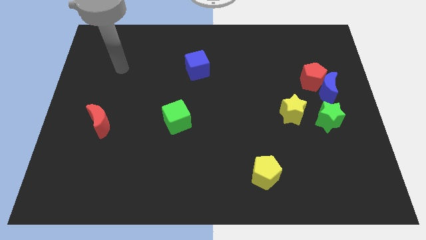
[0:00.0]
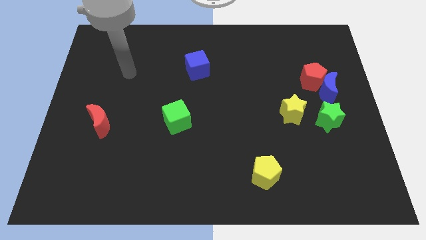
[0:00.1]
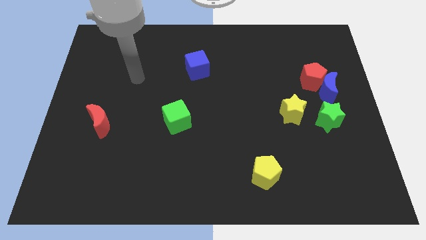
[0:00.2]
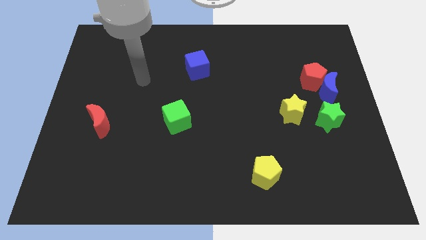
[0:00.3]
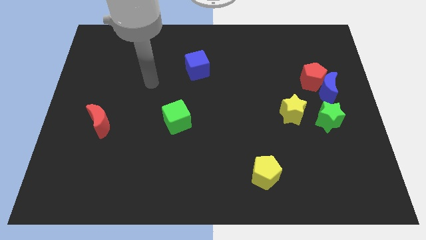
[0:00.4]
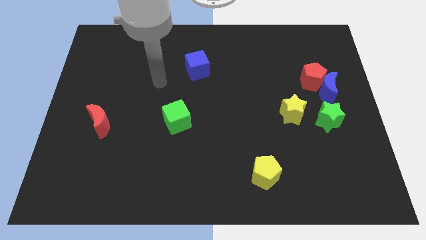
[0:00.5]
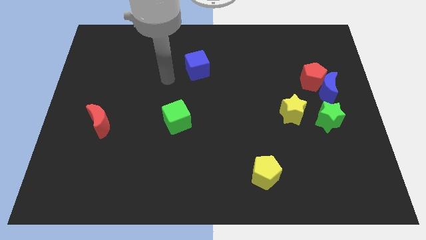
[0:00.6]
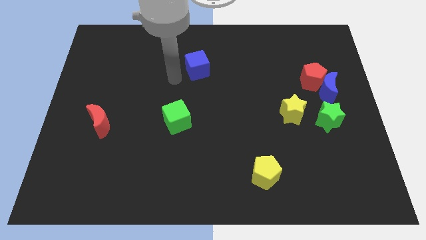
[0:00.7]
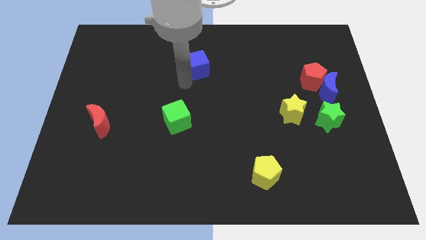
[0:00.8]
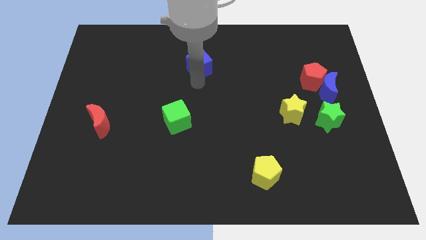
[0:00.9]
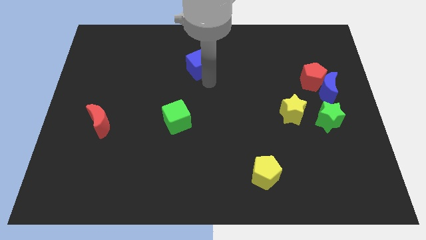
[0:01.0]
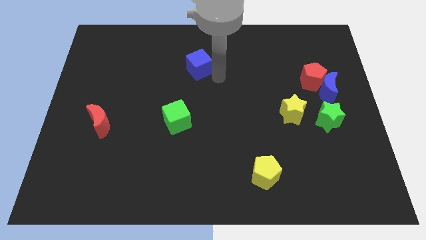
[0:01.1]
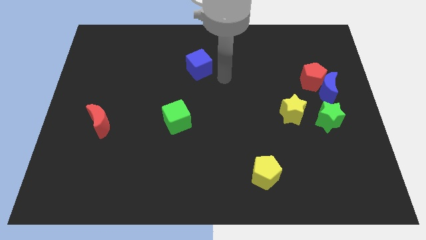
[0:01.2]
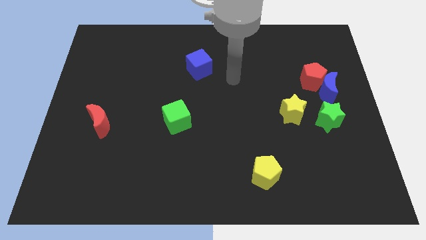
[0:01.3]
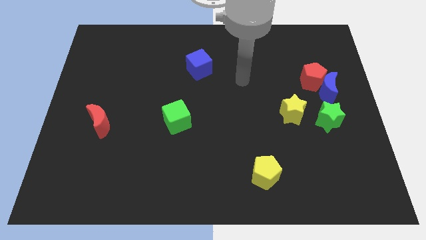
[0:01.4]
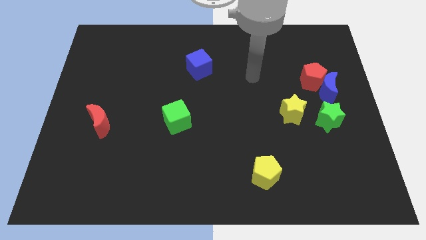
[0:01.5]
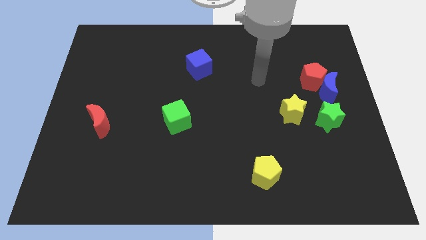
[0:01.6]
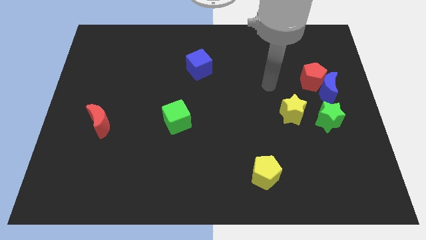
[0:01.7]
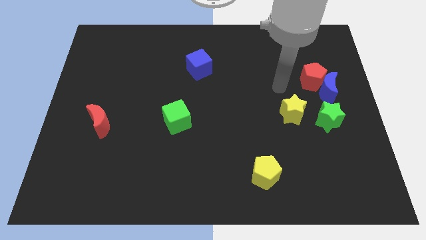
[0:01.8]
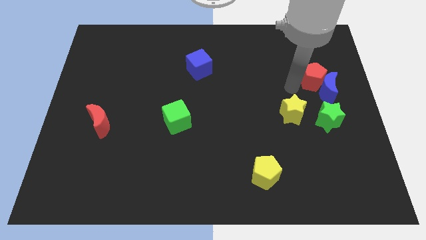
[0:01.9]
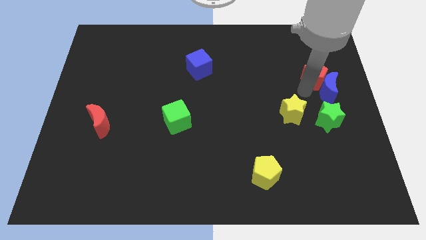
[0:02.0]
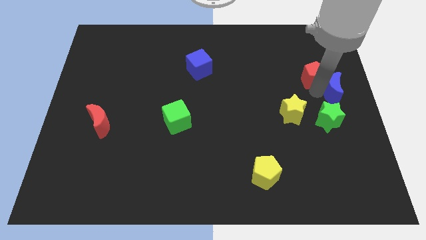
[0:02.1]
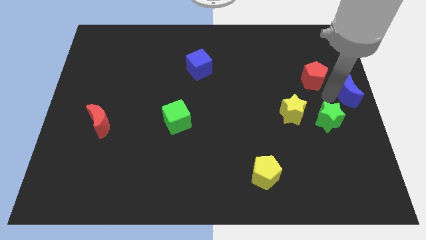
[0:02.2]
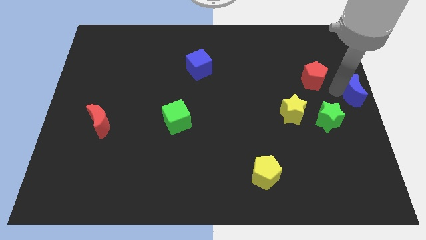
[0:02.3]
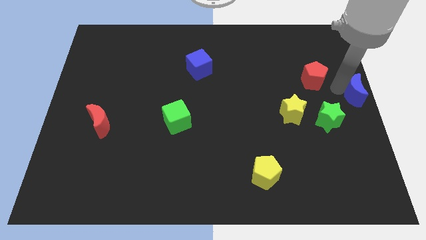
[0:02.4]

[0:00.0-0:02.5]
separate the red pentagon from the blue moon

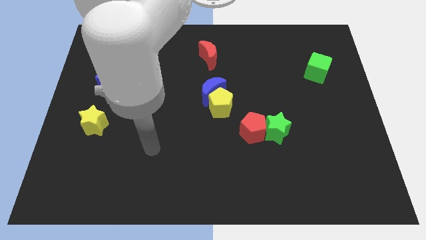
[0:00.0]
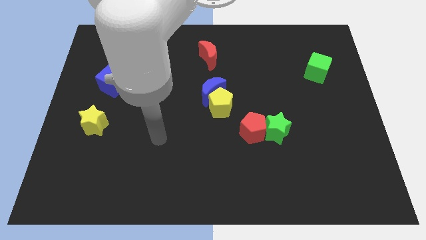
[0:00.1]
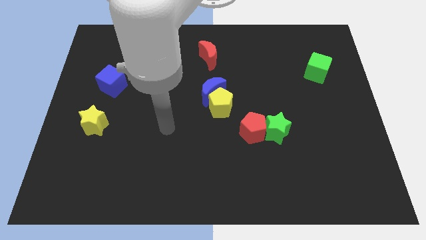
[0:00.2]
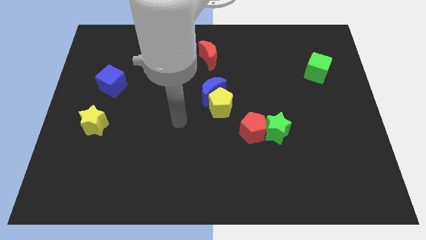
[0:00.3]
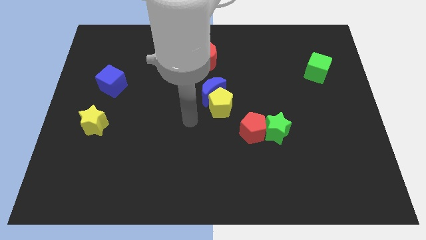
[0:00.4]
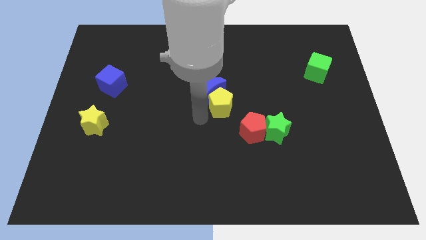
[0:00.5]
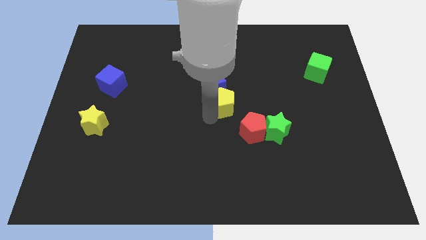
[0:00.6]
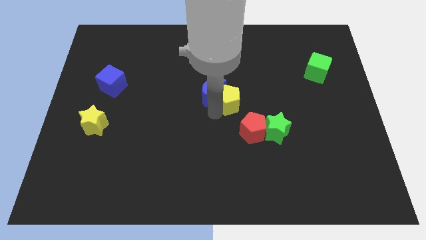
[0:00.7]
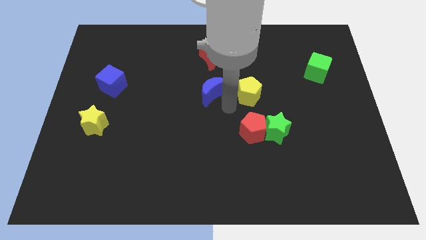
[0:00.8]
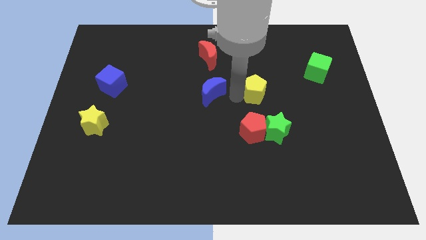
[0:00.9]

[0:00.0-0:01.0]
move the blue moon away from the yellow pentagon

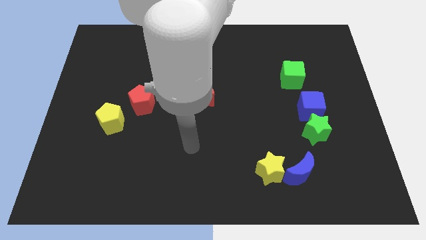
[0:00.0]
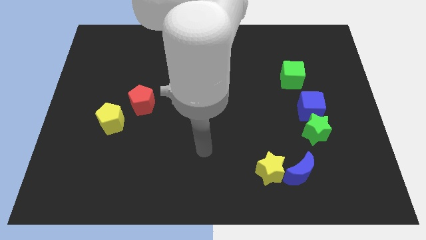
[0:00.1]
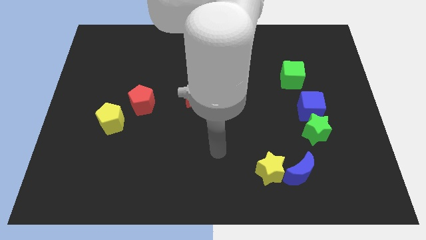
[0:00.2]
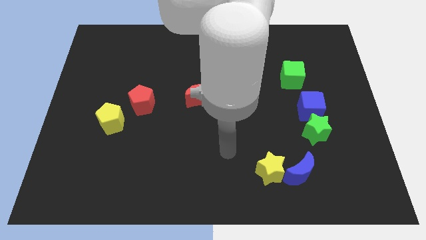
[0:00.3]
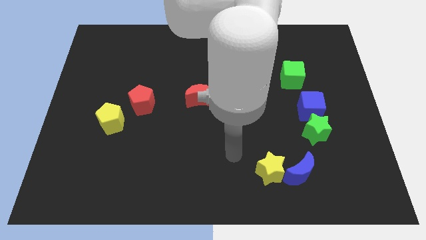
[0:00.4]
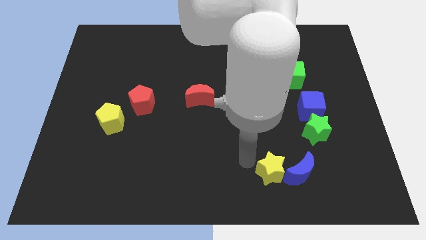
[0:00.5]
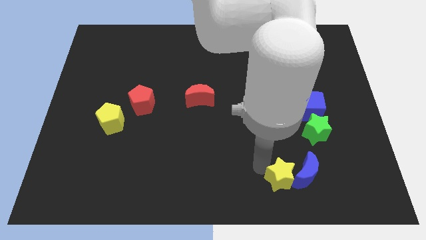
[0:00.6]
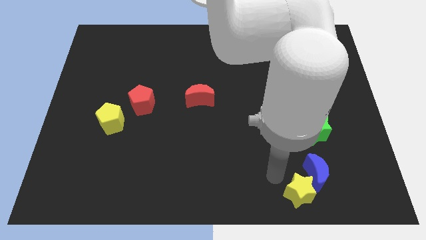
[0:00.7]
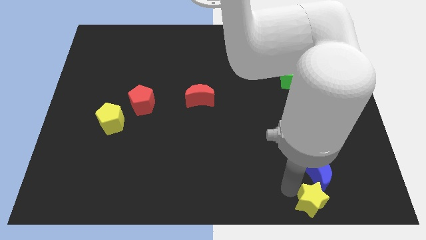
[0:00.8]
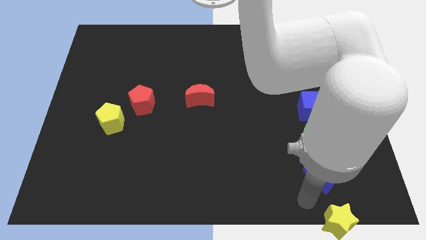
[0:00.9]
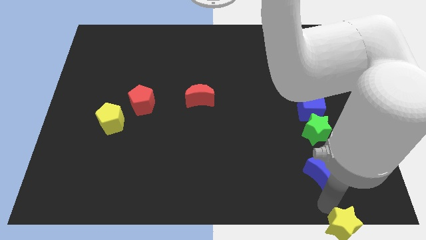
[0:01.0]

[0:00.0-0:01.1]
move the blue moon away from the yellow star

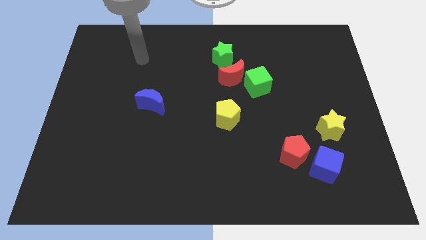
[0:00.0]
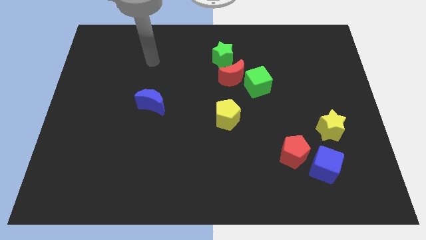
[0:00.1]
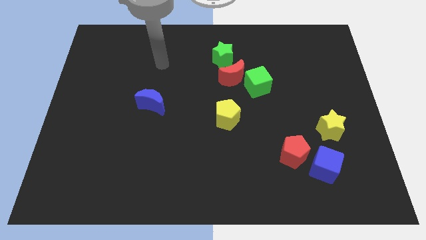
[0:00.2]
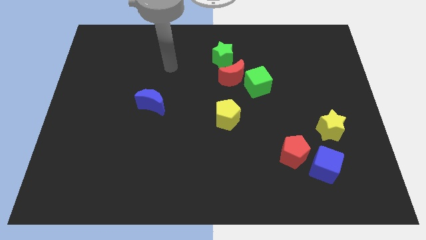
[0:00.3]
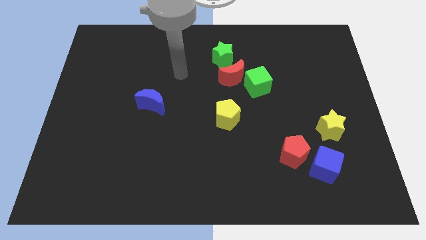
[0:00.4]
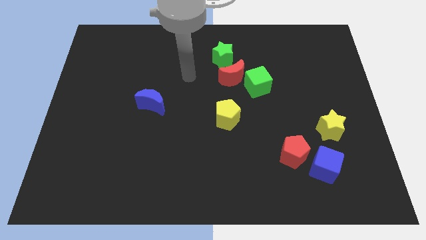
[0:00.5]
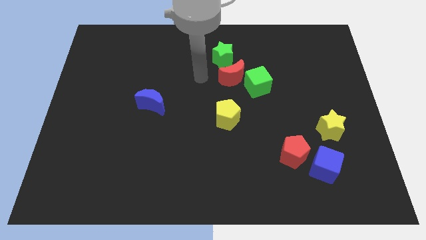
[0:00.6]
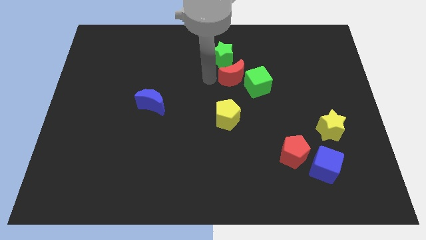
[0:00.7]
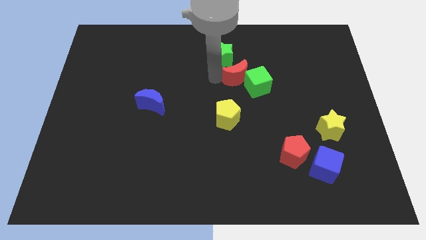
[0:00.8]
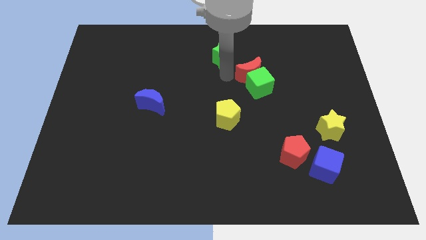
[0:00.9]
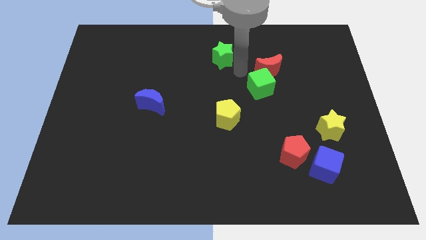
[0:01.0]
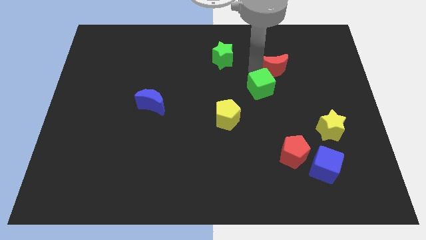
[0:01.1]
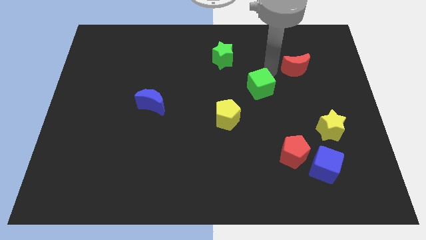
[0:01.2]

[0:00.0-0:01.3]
pull the green cube apart from the red moon

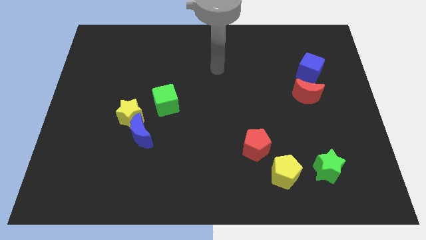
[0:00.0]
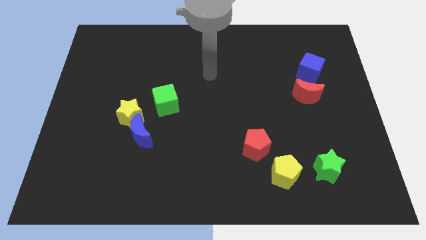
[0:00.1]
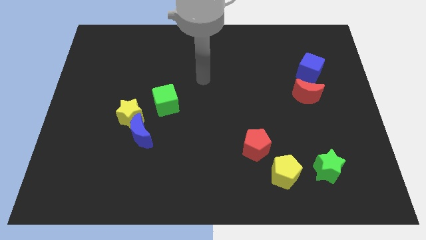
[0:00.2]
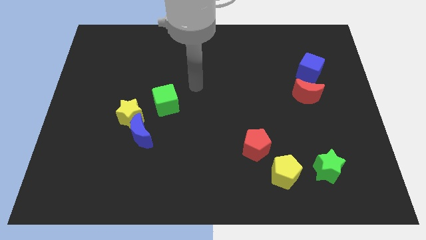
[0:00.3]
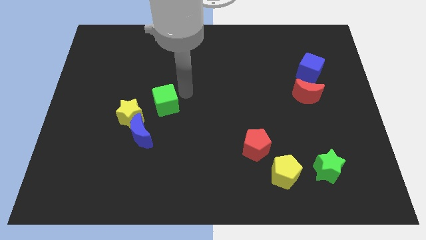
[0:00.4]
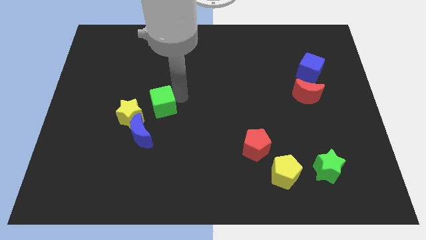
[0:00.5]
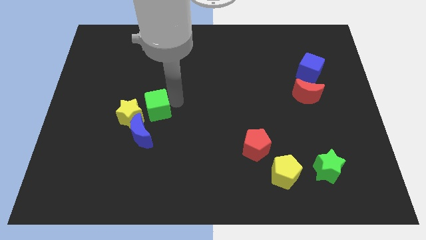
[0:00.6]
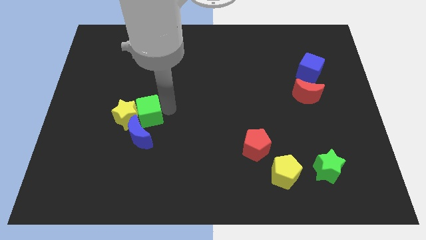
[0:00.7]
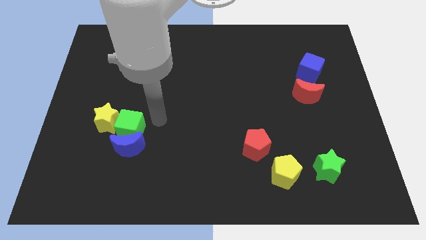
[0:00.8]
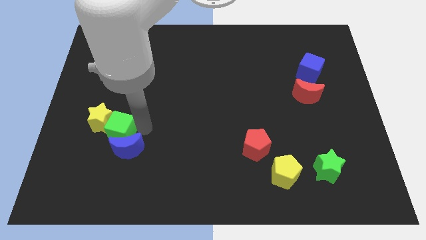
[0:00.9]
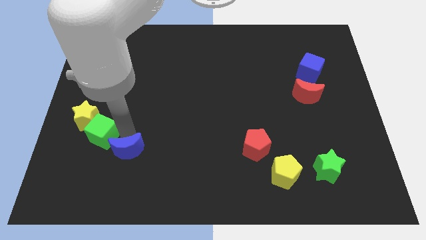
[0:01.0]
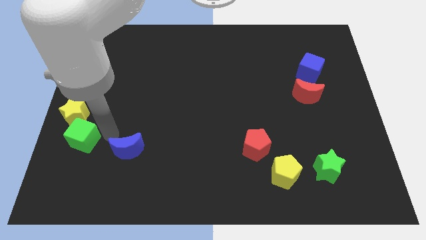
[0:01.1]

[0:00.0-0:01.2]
pull the yellow star apart from the blue moon and green cube

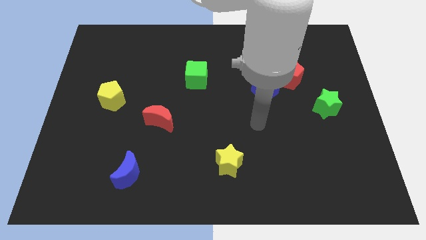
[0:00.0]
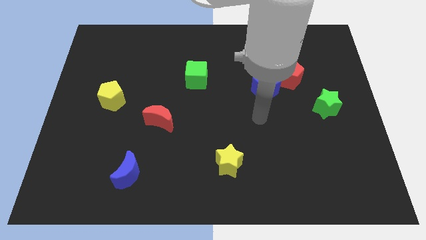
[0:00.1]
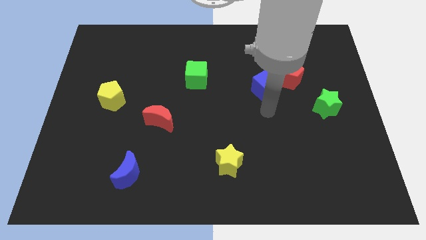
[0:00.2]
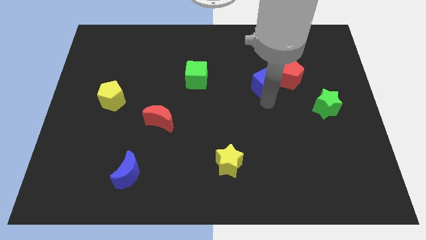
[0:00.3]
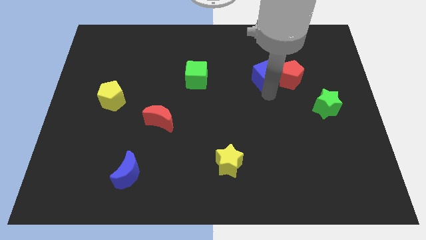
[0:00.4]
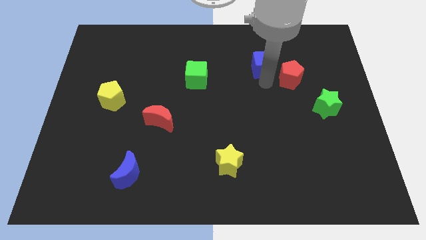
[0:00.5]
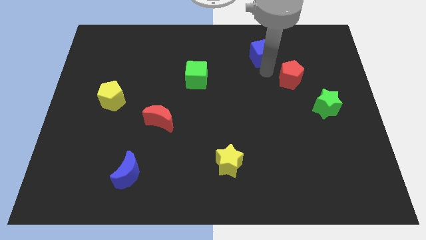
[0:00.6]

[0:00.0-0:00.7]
separate the red pentagon from the blue cube

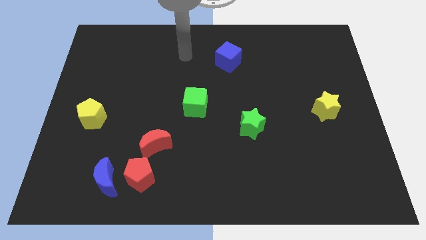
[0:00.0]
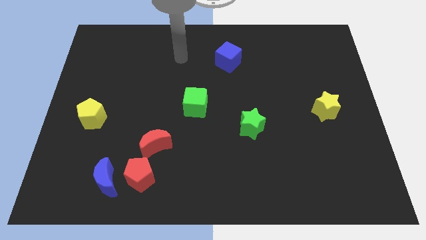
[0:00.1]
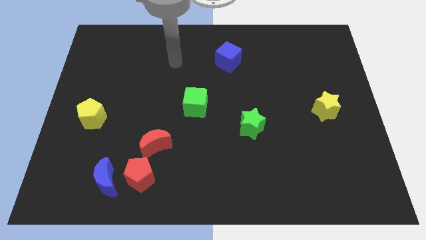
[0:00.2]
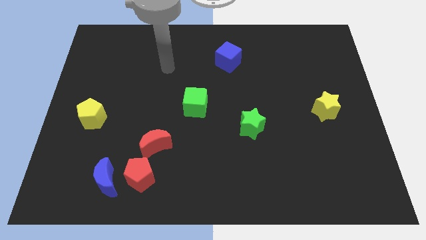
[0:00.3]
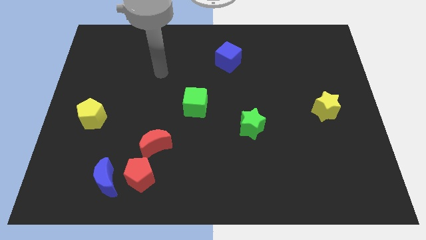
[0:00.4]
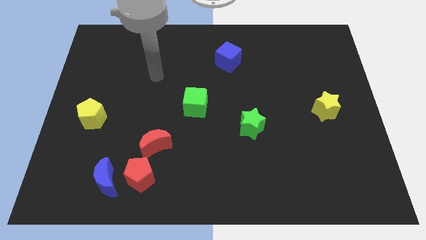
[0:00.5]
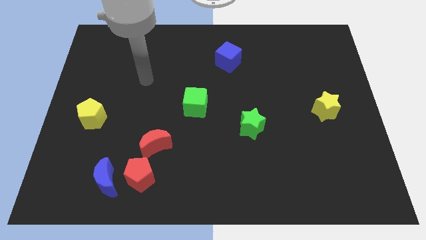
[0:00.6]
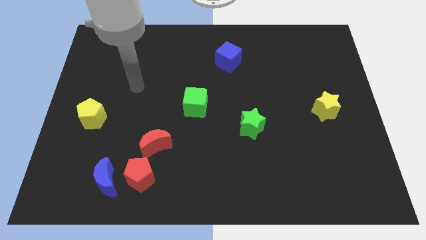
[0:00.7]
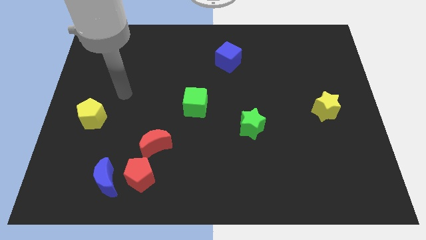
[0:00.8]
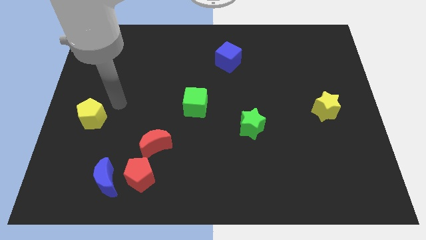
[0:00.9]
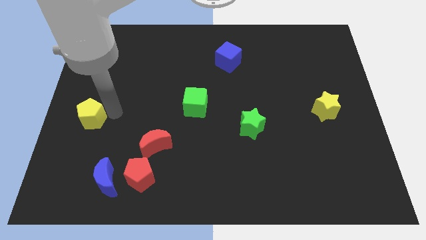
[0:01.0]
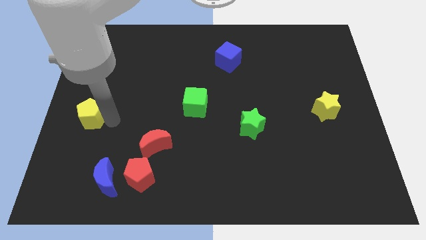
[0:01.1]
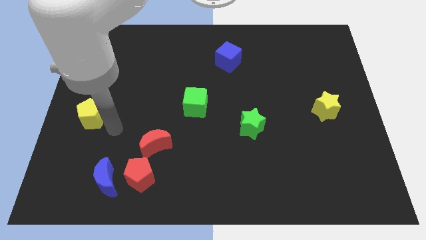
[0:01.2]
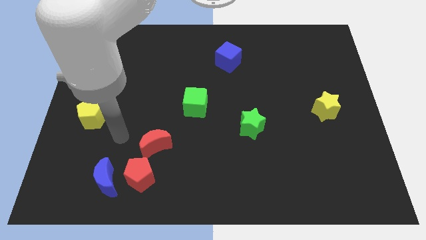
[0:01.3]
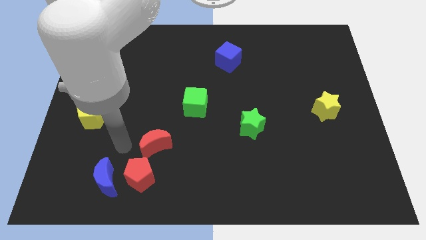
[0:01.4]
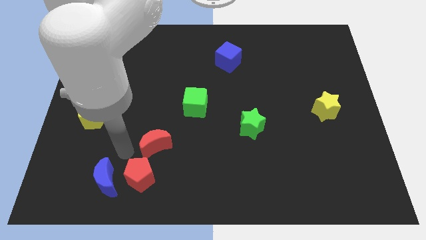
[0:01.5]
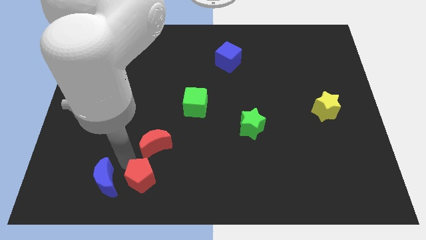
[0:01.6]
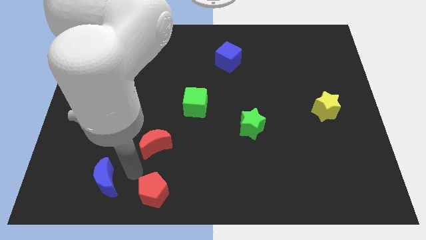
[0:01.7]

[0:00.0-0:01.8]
move the blue moon away from the red pentagon
